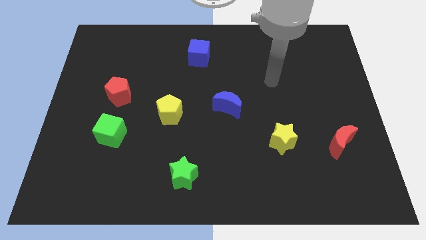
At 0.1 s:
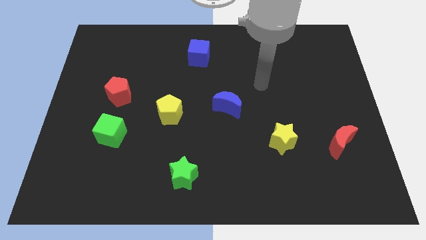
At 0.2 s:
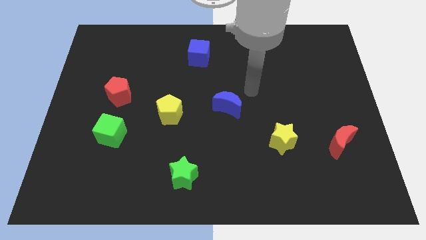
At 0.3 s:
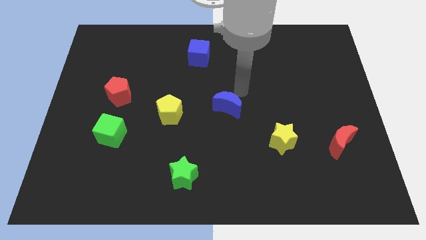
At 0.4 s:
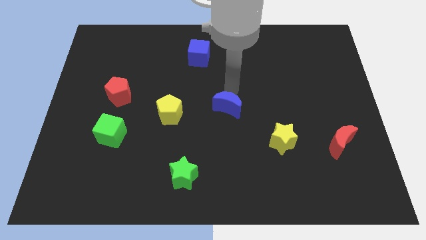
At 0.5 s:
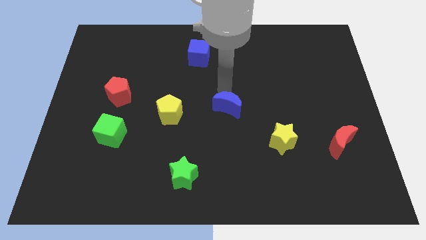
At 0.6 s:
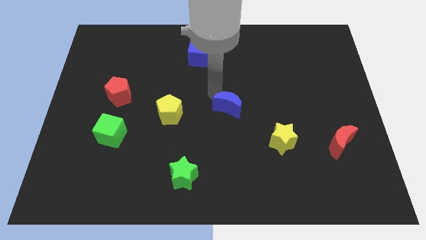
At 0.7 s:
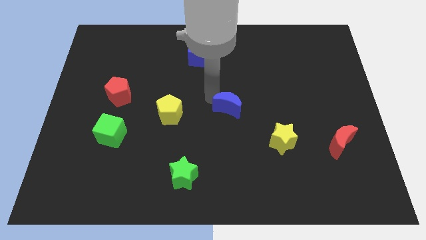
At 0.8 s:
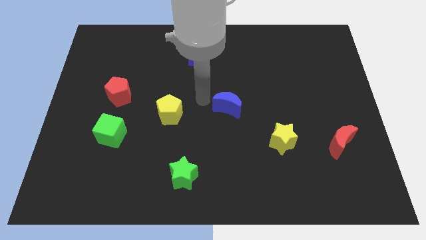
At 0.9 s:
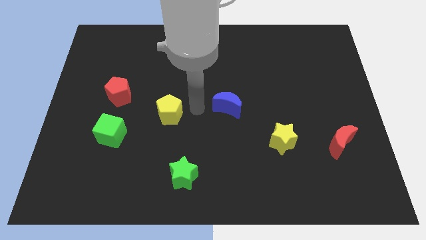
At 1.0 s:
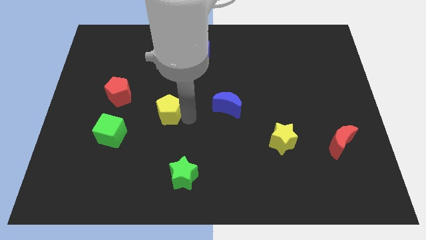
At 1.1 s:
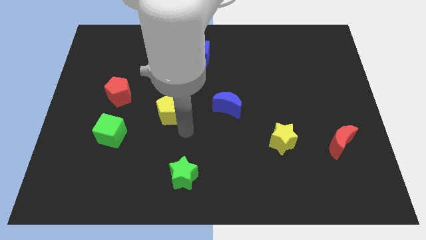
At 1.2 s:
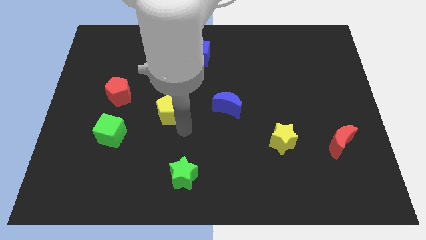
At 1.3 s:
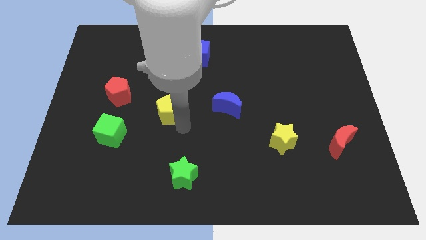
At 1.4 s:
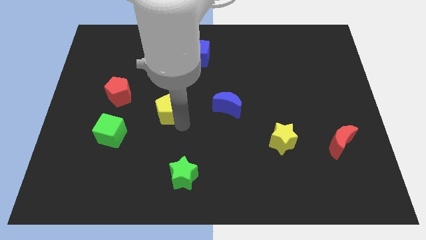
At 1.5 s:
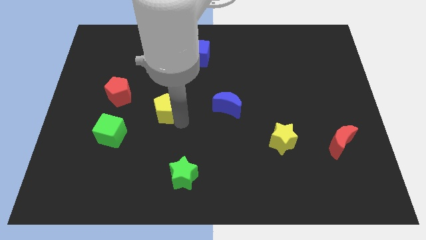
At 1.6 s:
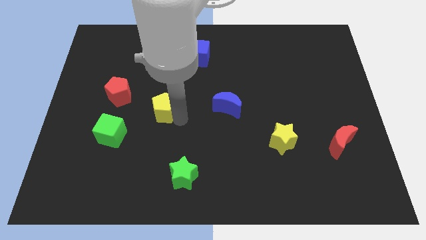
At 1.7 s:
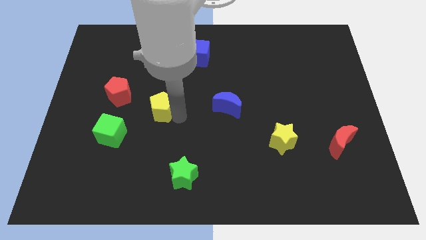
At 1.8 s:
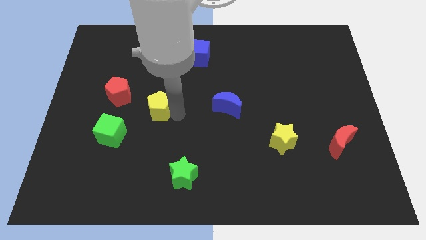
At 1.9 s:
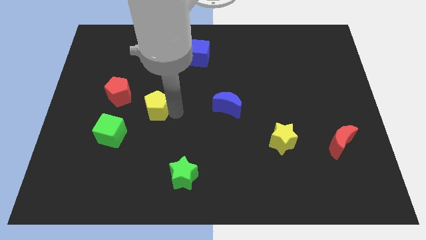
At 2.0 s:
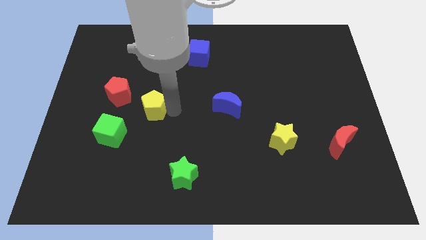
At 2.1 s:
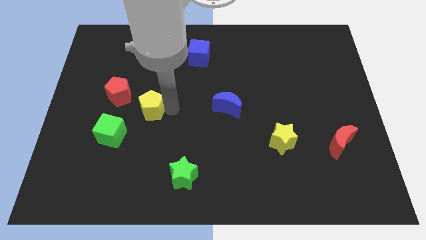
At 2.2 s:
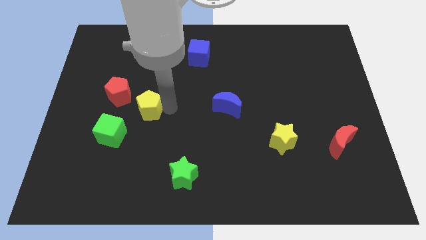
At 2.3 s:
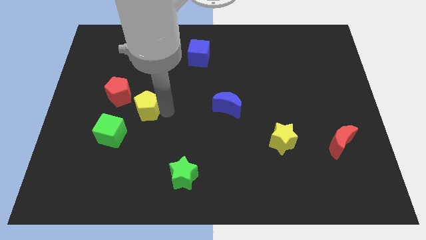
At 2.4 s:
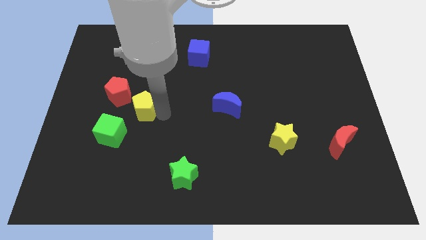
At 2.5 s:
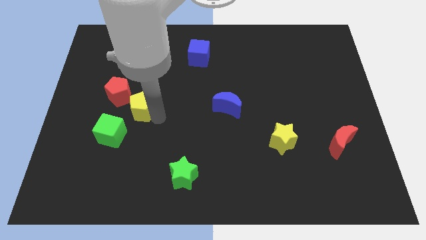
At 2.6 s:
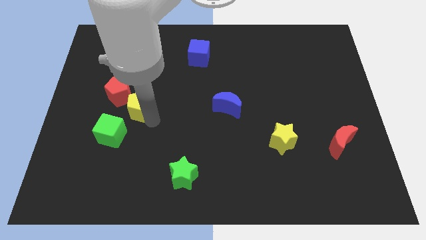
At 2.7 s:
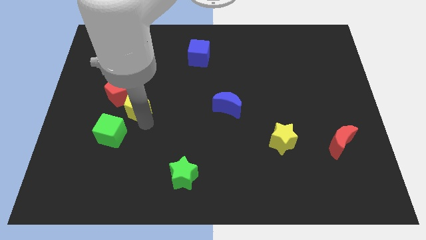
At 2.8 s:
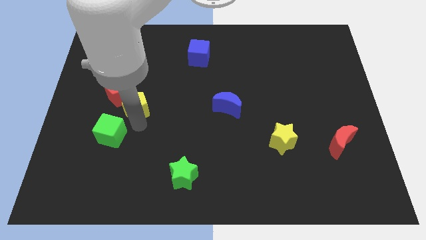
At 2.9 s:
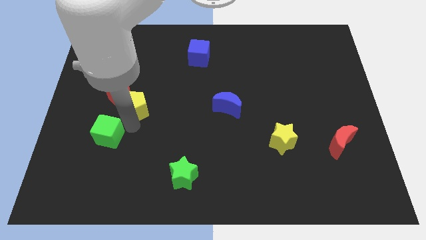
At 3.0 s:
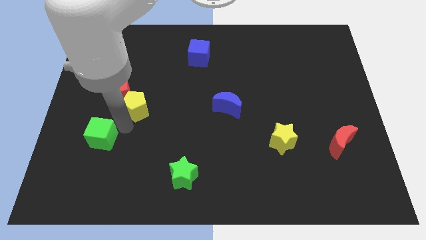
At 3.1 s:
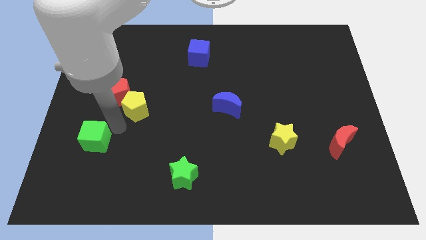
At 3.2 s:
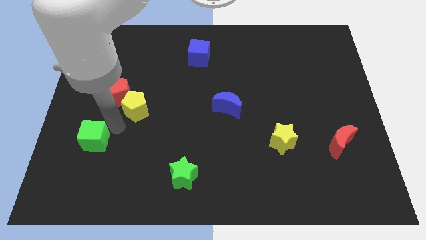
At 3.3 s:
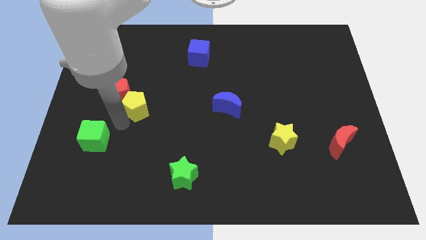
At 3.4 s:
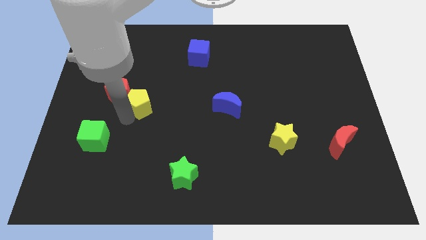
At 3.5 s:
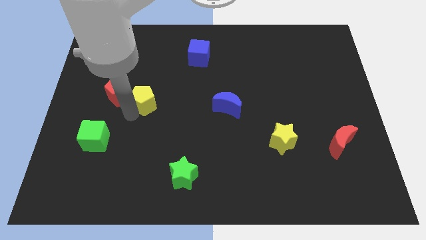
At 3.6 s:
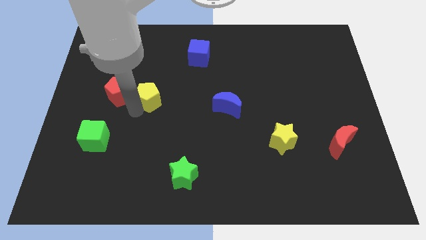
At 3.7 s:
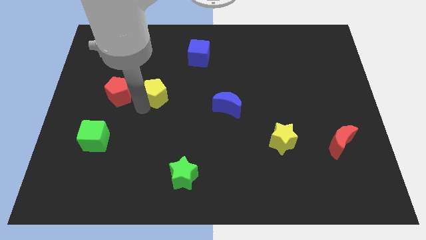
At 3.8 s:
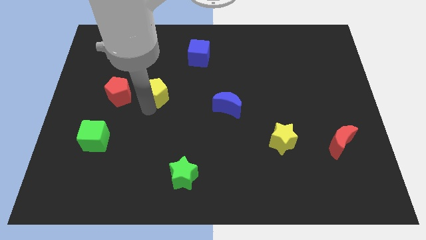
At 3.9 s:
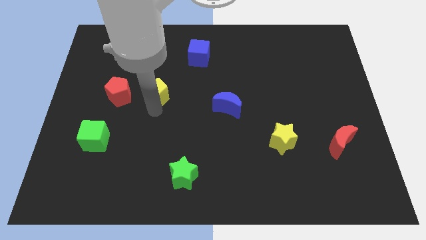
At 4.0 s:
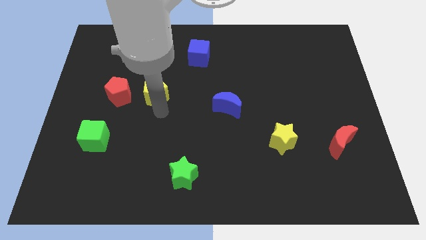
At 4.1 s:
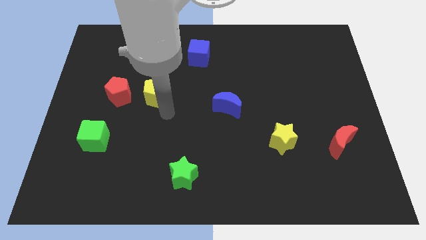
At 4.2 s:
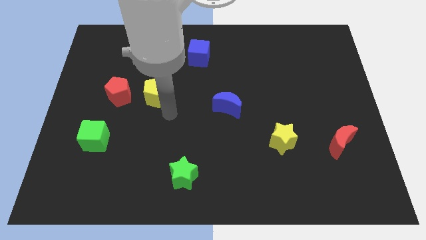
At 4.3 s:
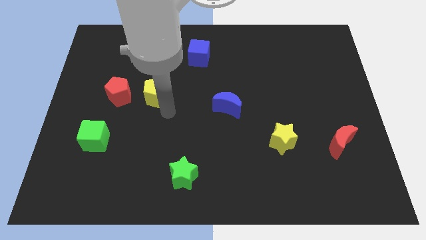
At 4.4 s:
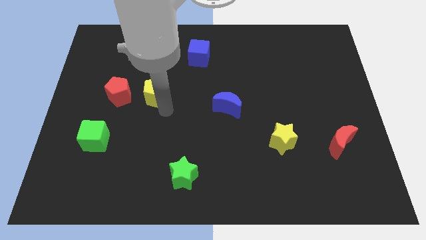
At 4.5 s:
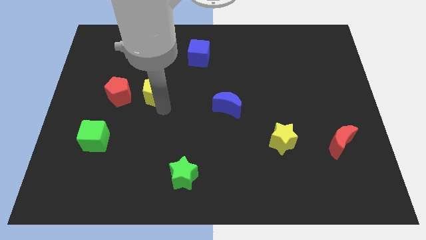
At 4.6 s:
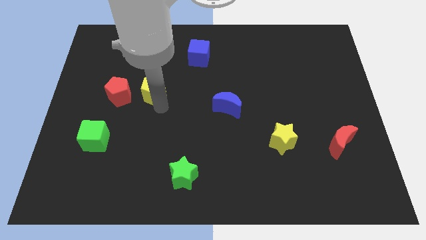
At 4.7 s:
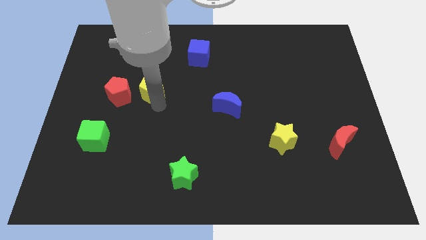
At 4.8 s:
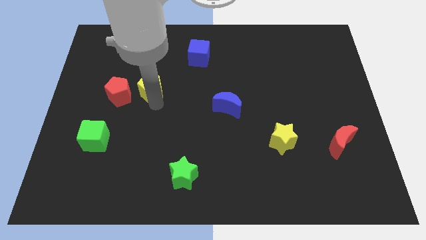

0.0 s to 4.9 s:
slide the yellow pentagon to the top right of the red pentagon

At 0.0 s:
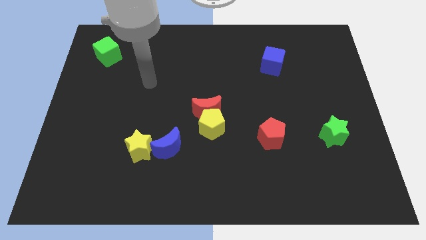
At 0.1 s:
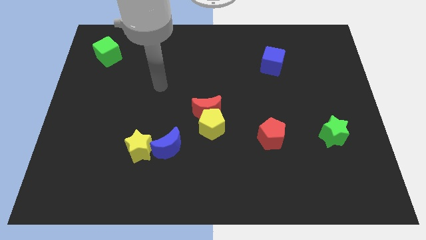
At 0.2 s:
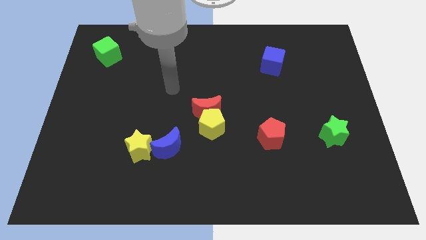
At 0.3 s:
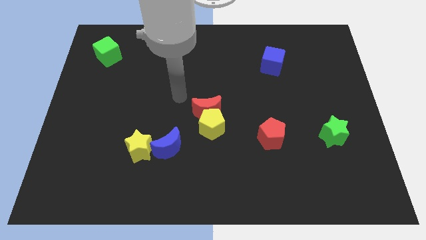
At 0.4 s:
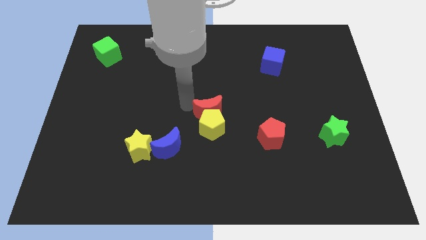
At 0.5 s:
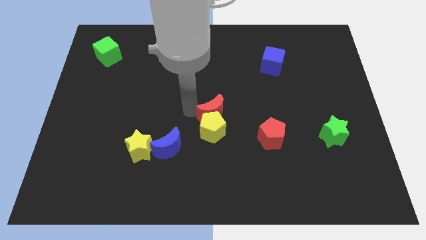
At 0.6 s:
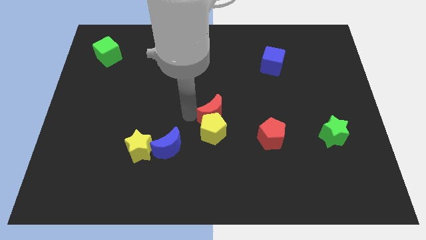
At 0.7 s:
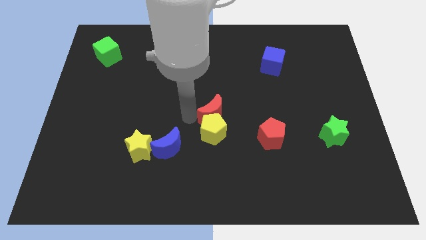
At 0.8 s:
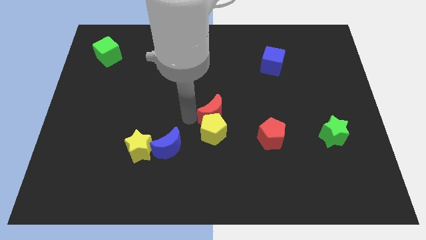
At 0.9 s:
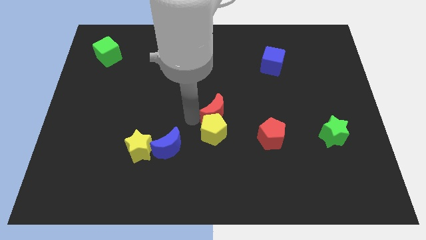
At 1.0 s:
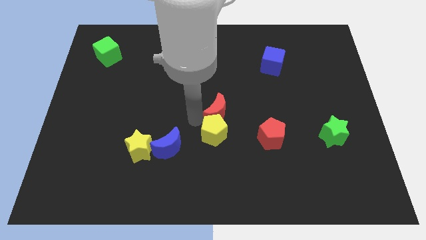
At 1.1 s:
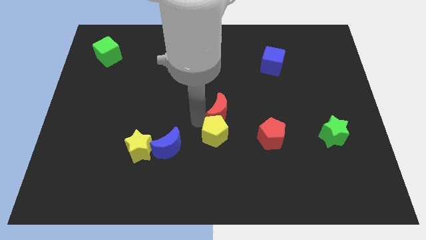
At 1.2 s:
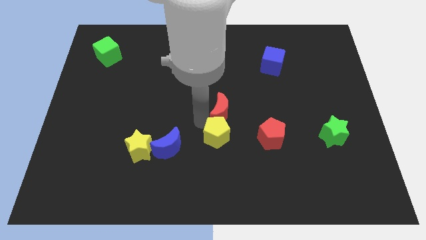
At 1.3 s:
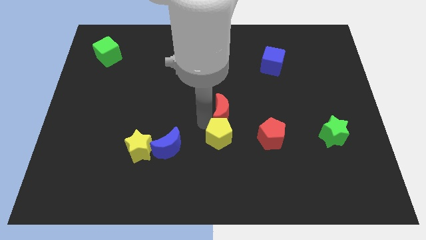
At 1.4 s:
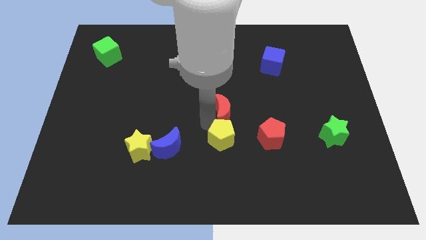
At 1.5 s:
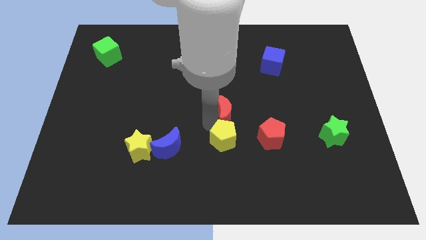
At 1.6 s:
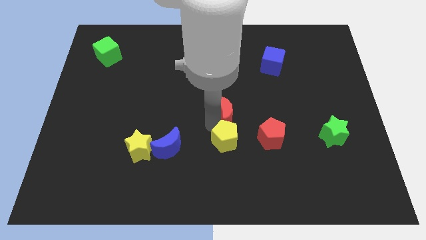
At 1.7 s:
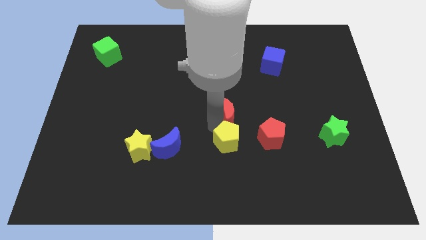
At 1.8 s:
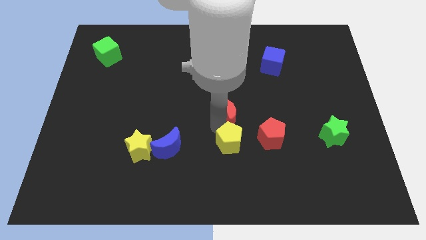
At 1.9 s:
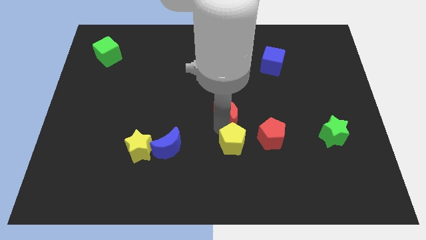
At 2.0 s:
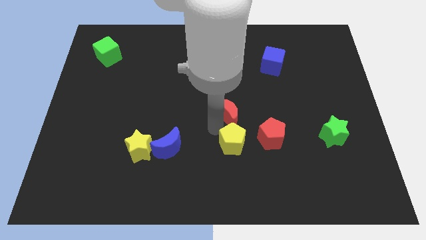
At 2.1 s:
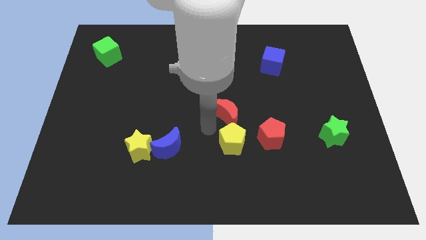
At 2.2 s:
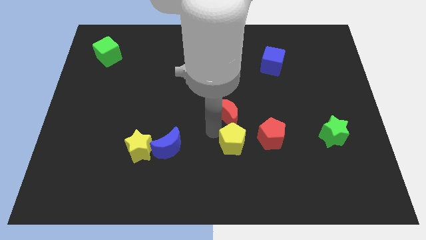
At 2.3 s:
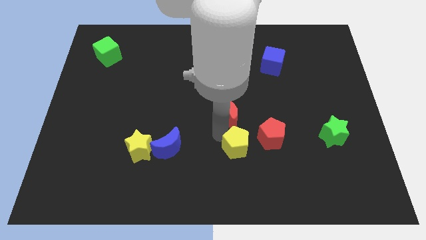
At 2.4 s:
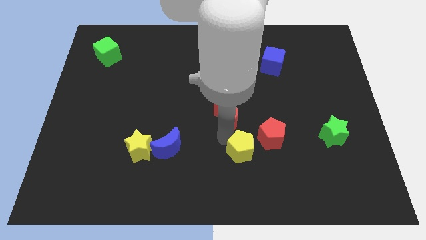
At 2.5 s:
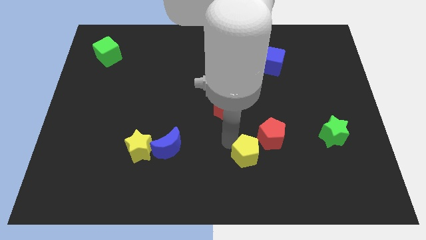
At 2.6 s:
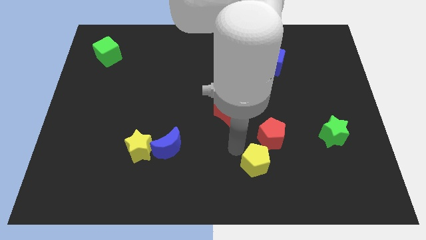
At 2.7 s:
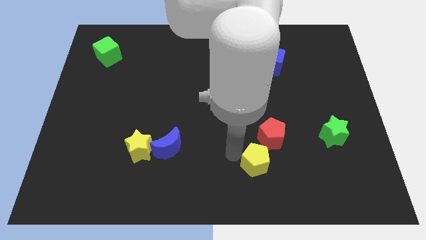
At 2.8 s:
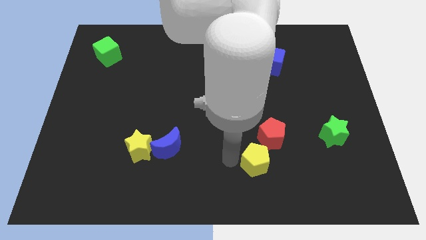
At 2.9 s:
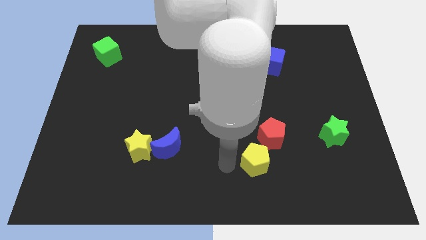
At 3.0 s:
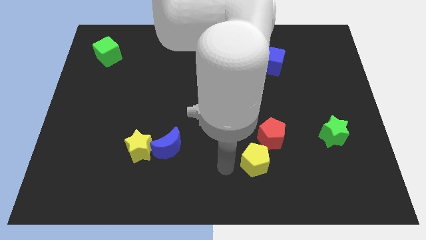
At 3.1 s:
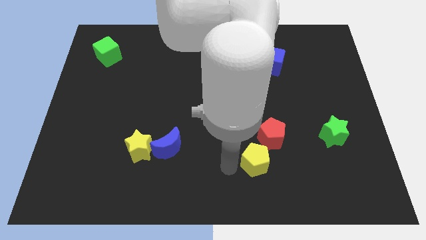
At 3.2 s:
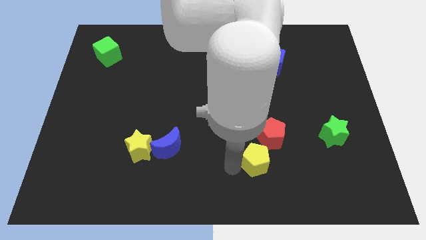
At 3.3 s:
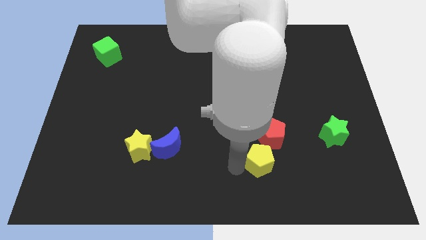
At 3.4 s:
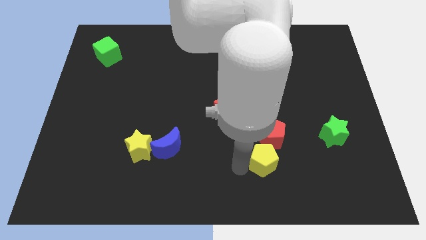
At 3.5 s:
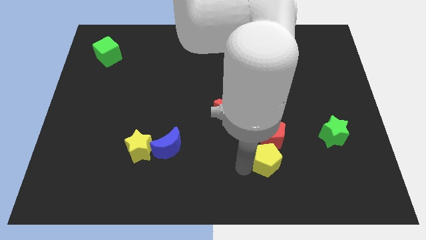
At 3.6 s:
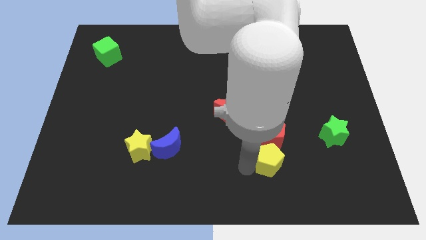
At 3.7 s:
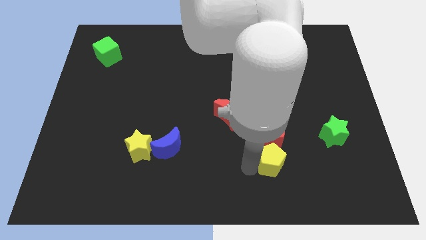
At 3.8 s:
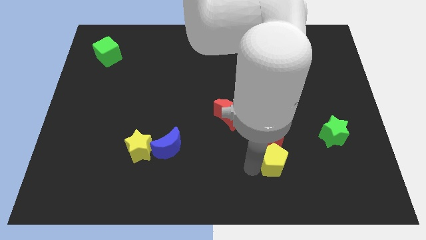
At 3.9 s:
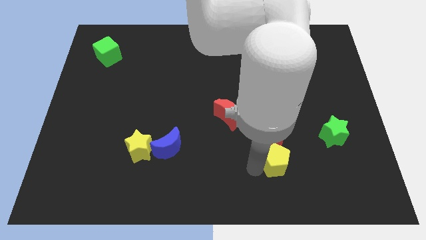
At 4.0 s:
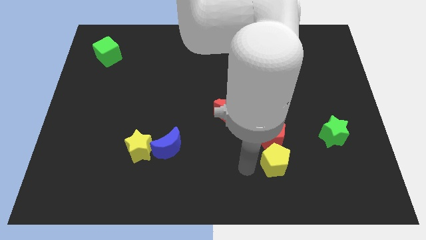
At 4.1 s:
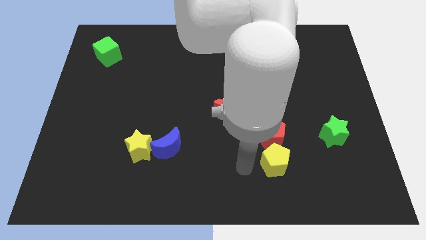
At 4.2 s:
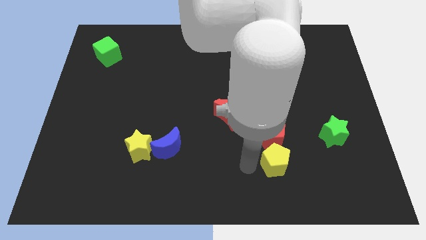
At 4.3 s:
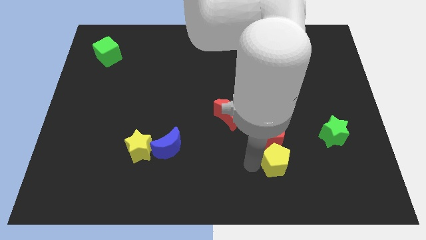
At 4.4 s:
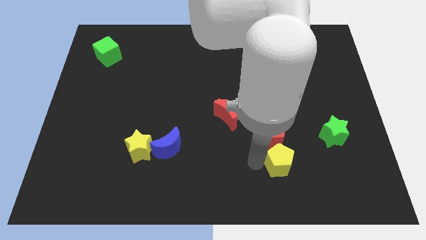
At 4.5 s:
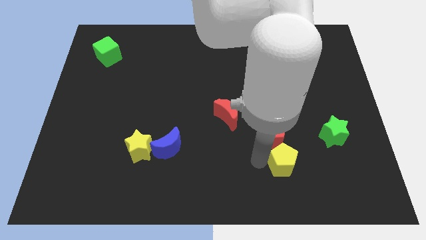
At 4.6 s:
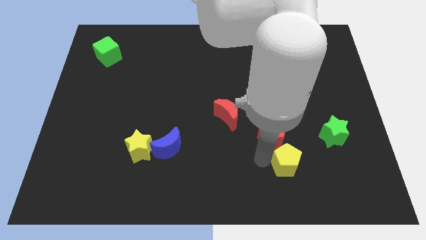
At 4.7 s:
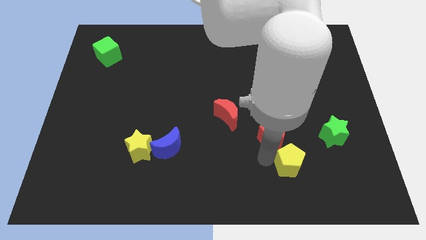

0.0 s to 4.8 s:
slide the yellow pentagon to the bottom left side of the green star
